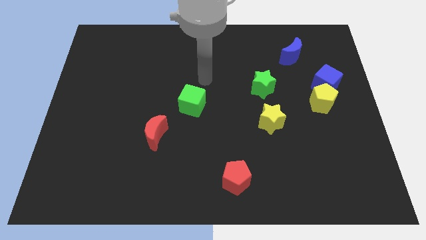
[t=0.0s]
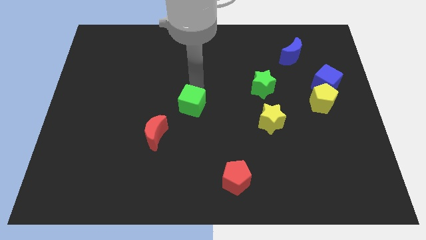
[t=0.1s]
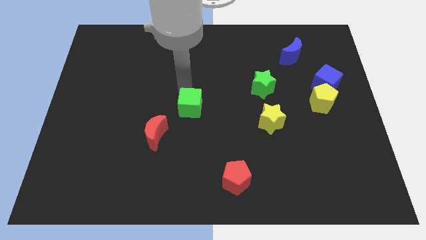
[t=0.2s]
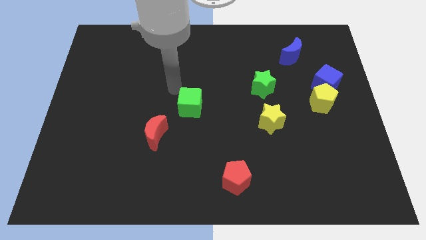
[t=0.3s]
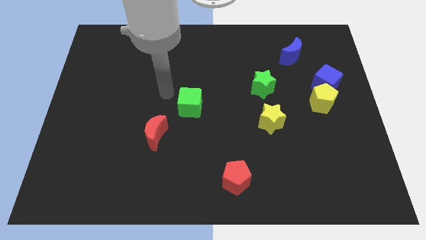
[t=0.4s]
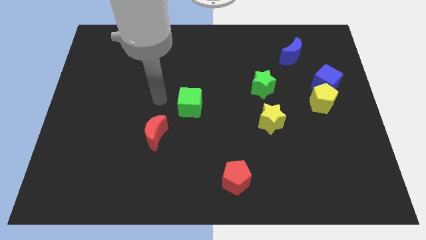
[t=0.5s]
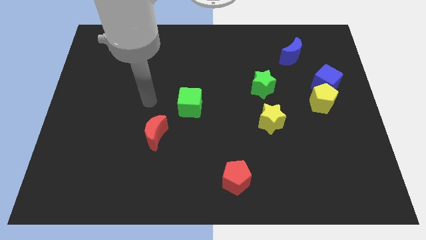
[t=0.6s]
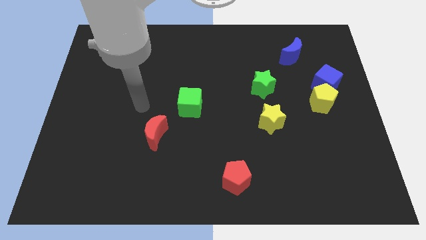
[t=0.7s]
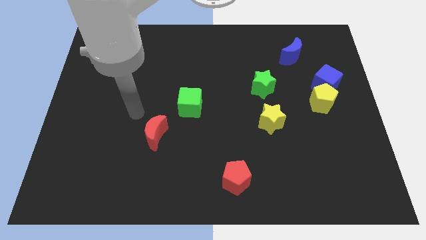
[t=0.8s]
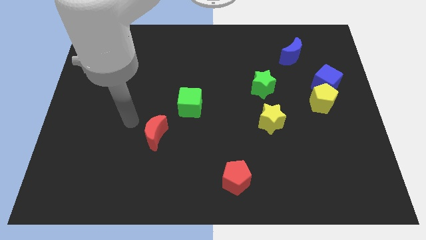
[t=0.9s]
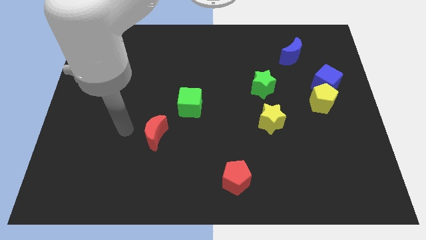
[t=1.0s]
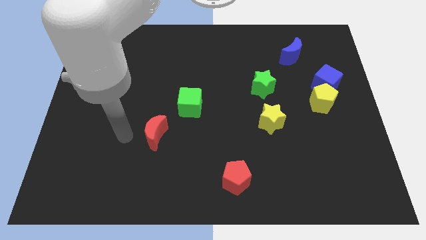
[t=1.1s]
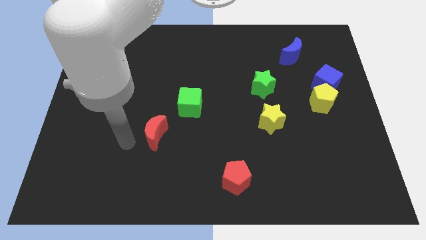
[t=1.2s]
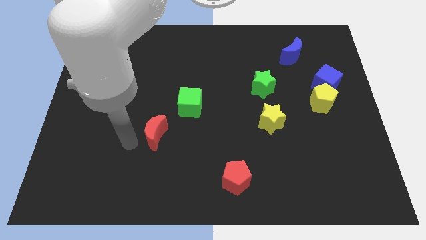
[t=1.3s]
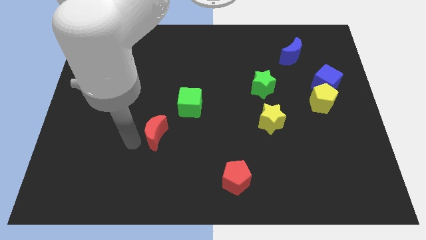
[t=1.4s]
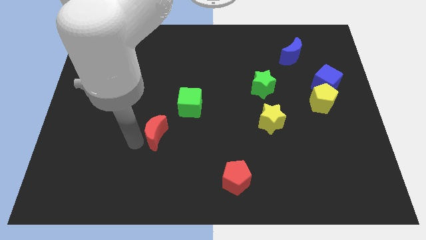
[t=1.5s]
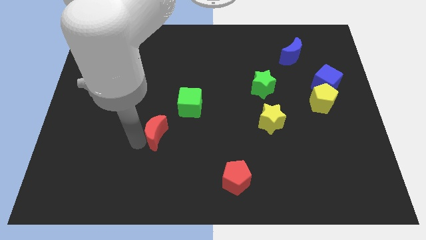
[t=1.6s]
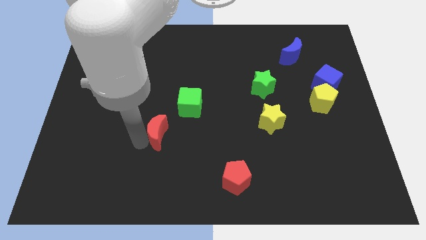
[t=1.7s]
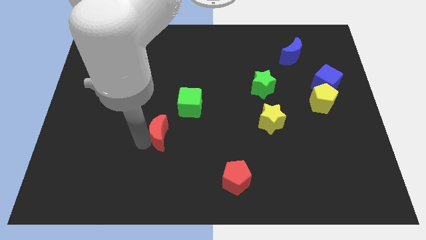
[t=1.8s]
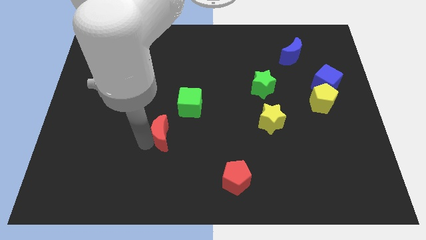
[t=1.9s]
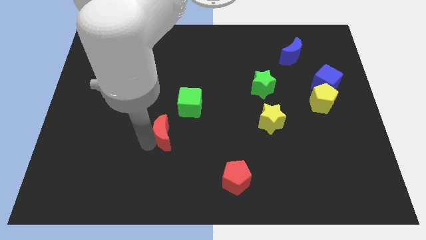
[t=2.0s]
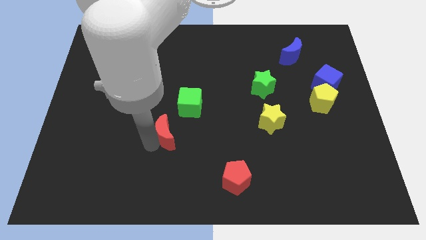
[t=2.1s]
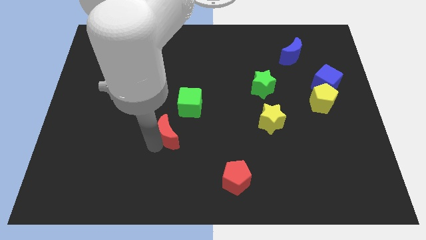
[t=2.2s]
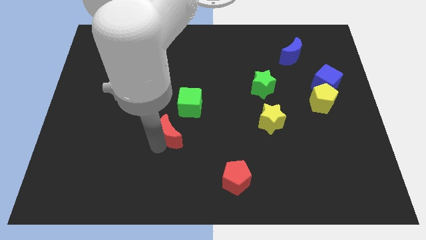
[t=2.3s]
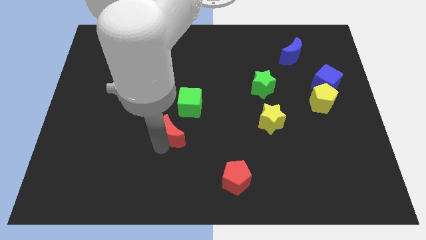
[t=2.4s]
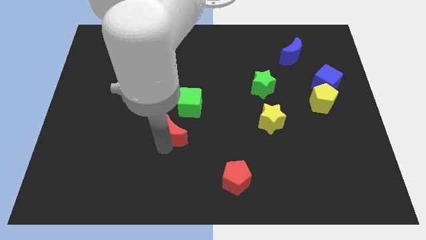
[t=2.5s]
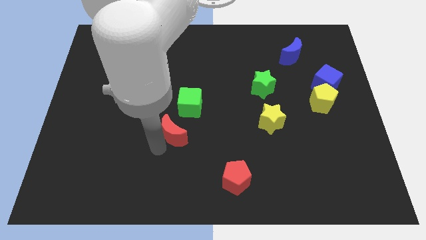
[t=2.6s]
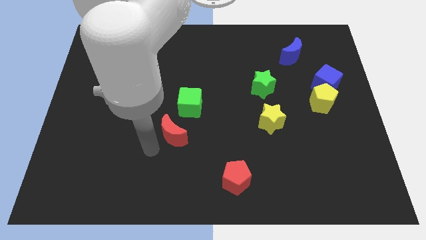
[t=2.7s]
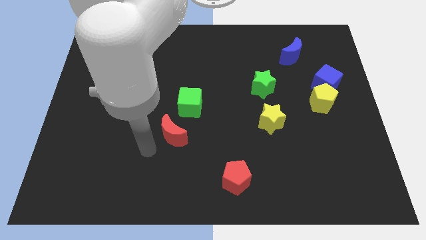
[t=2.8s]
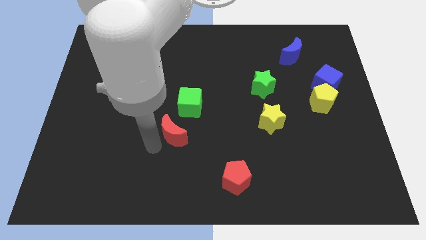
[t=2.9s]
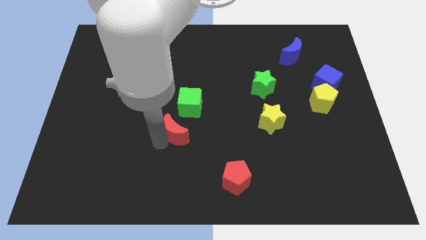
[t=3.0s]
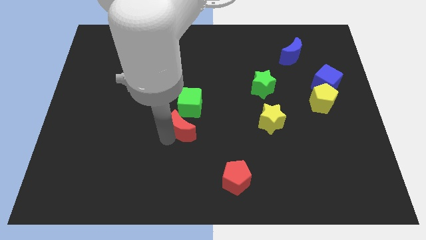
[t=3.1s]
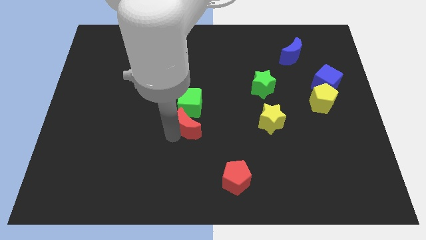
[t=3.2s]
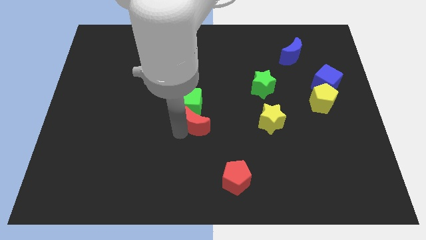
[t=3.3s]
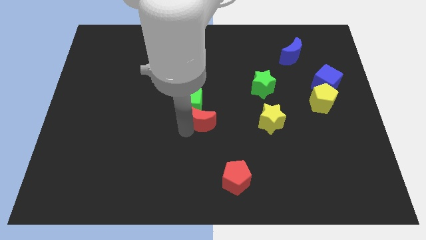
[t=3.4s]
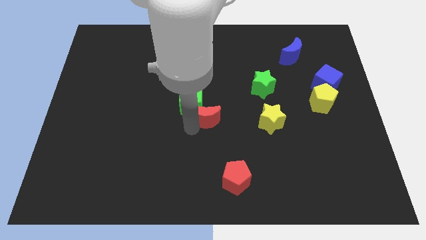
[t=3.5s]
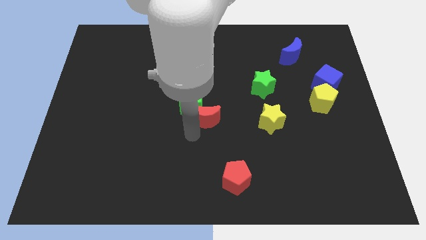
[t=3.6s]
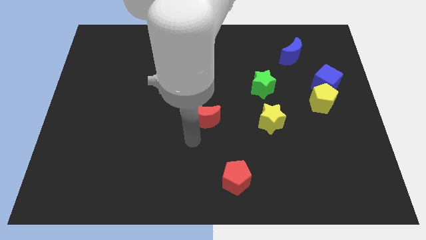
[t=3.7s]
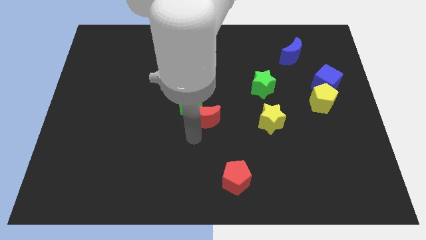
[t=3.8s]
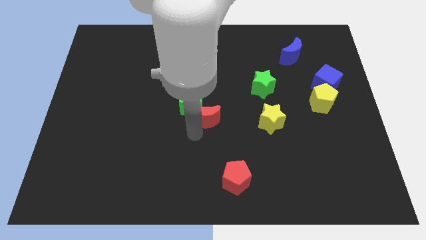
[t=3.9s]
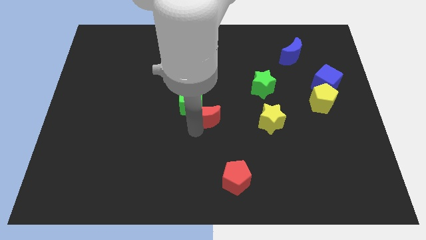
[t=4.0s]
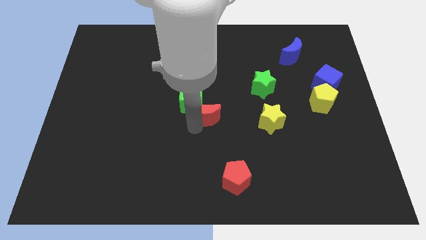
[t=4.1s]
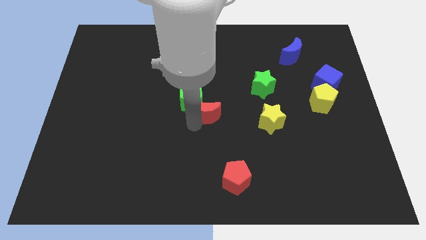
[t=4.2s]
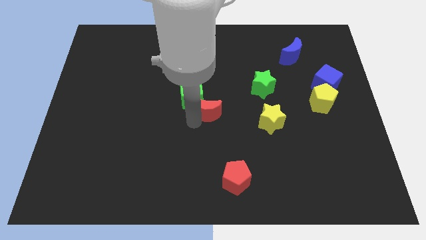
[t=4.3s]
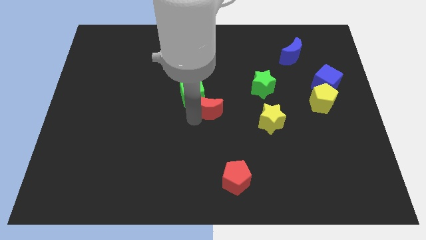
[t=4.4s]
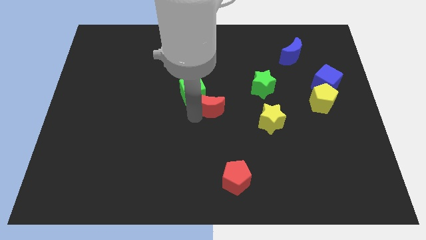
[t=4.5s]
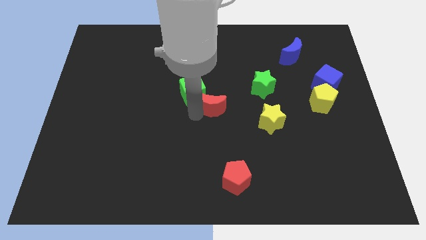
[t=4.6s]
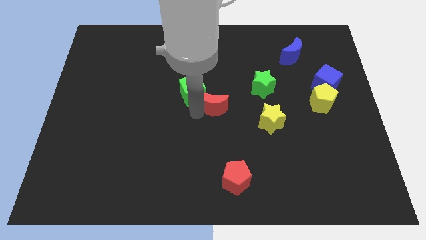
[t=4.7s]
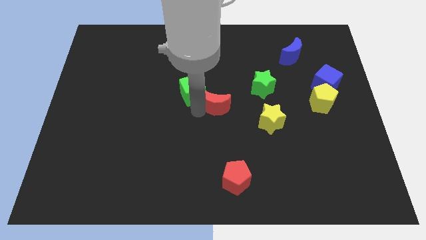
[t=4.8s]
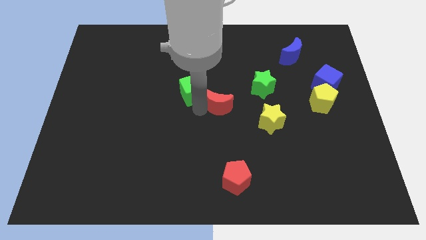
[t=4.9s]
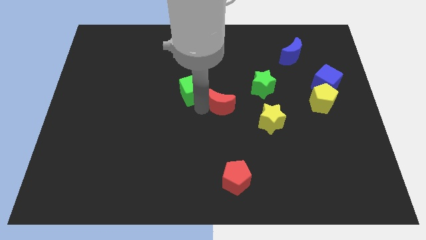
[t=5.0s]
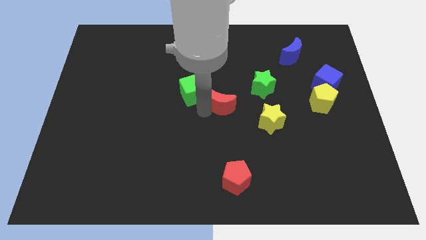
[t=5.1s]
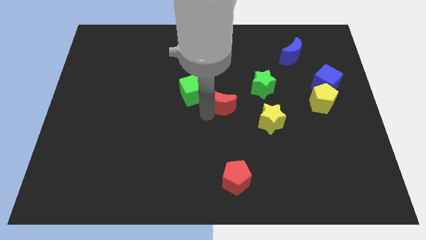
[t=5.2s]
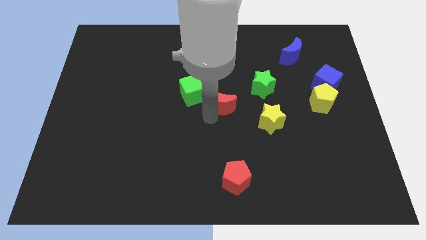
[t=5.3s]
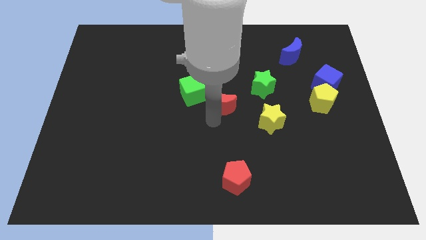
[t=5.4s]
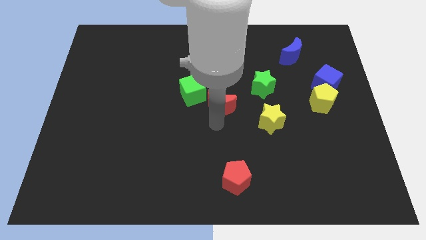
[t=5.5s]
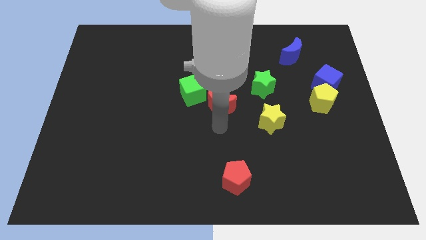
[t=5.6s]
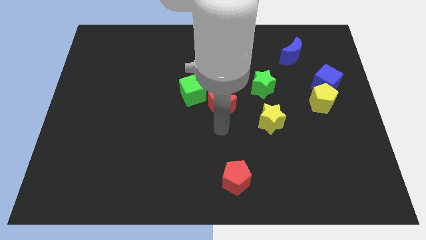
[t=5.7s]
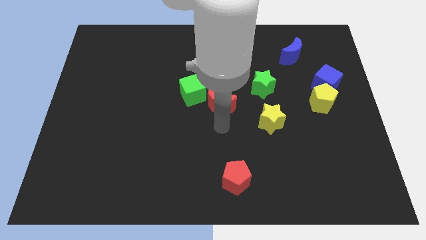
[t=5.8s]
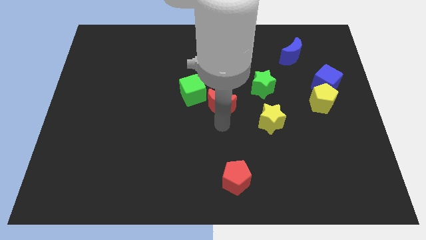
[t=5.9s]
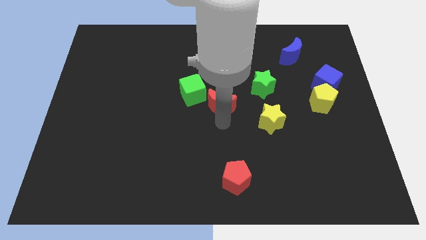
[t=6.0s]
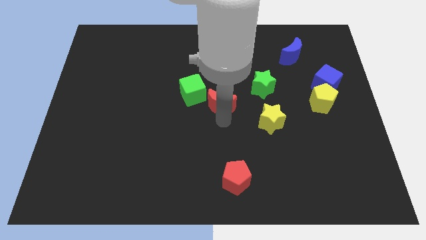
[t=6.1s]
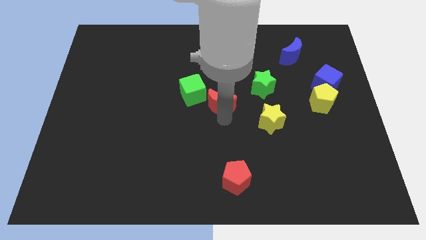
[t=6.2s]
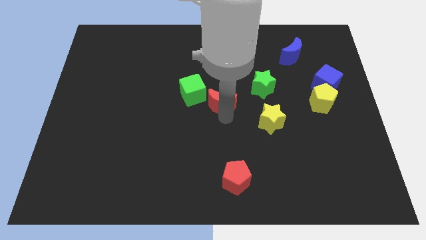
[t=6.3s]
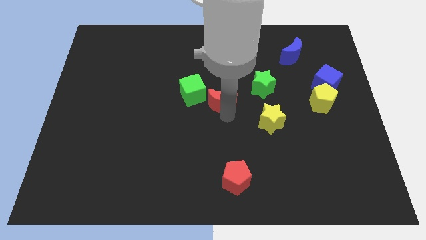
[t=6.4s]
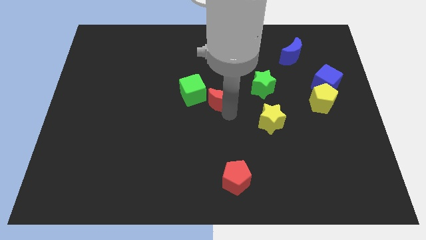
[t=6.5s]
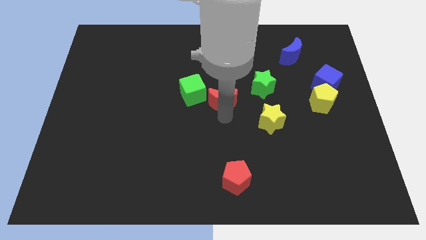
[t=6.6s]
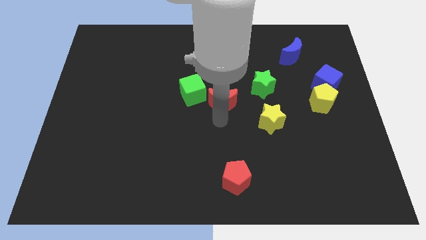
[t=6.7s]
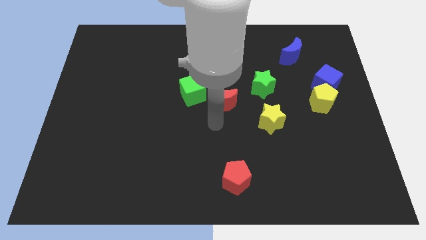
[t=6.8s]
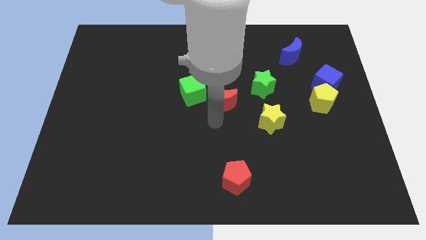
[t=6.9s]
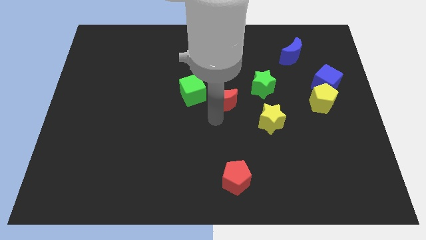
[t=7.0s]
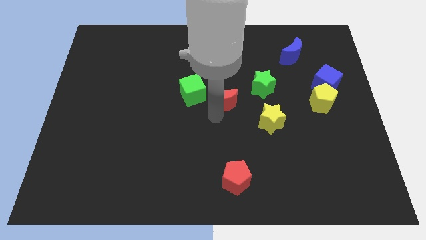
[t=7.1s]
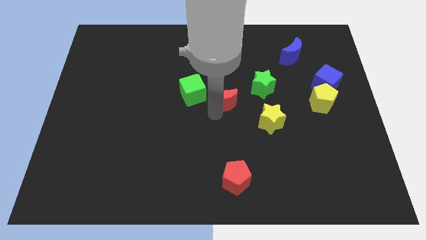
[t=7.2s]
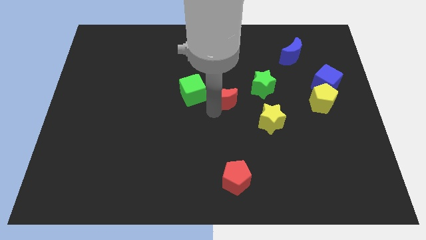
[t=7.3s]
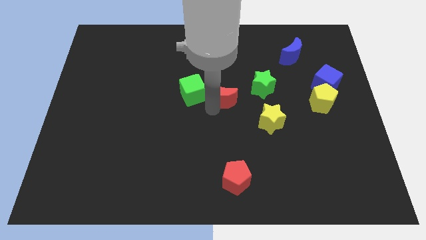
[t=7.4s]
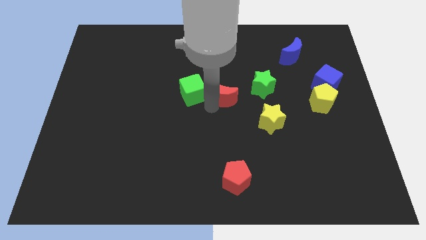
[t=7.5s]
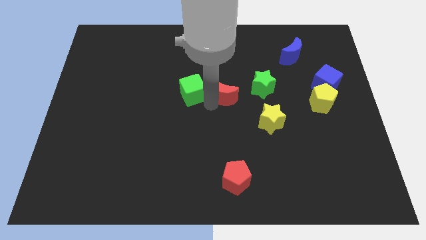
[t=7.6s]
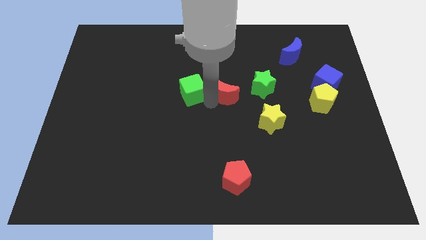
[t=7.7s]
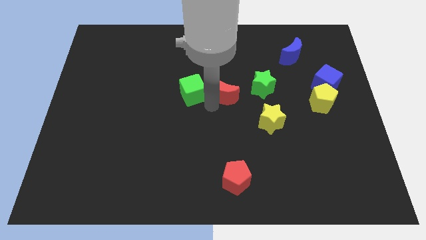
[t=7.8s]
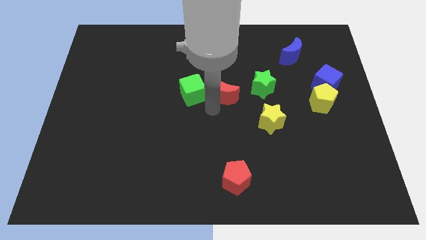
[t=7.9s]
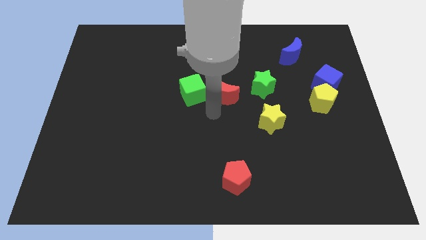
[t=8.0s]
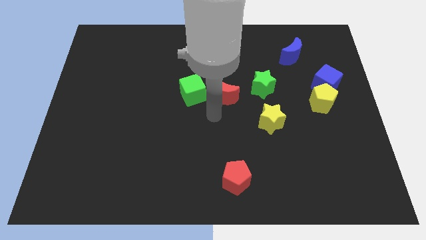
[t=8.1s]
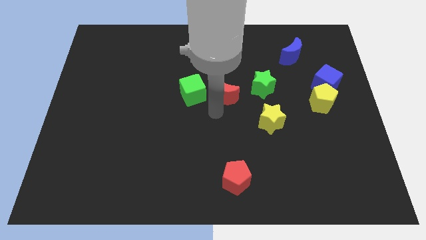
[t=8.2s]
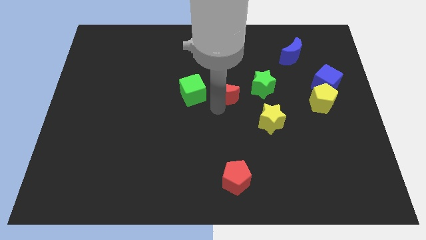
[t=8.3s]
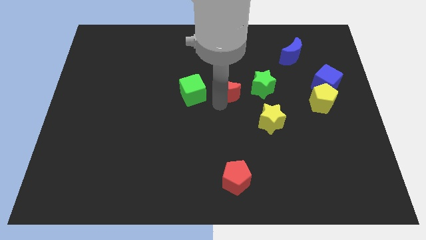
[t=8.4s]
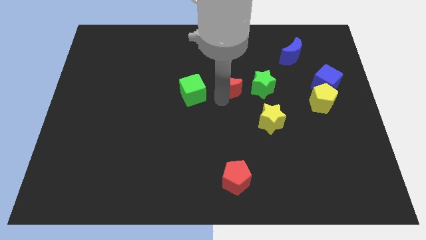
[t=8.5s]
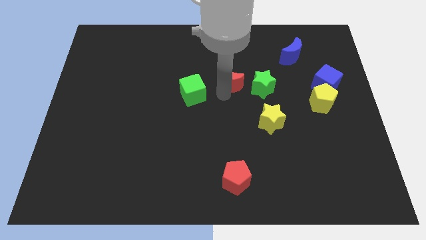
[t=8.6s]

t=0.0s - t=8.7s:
move the red moon to the top left side of the green star
